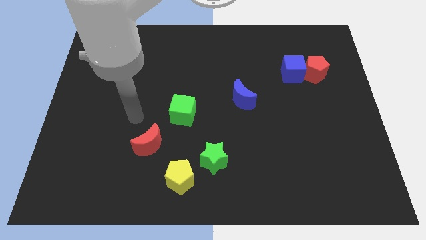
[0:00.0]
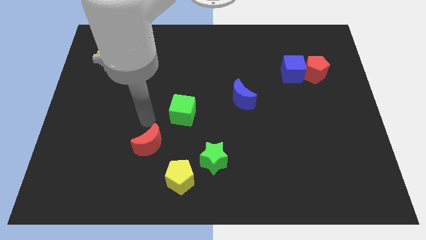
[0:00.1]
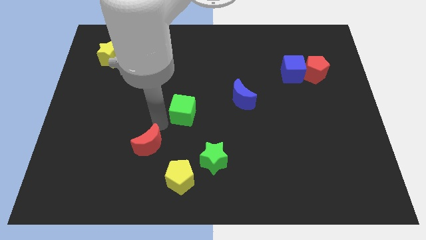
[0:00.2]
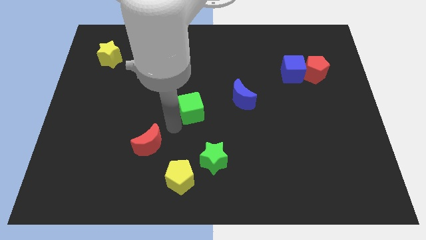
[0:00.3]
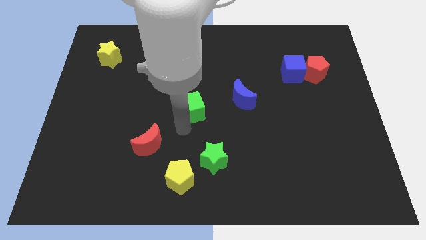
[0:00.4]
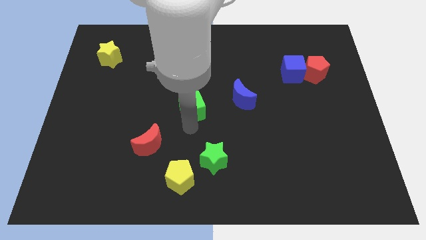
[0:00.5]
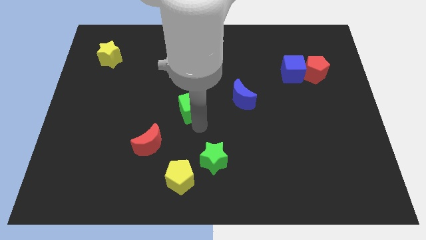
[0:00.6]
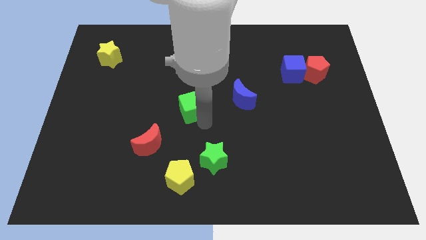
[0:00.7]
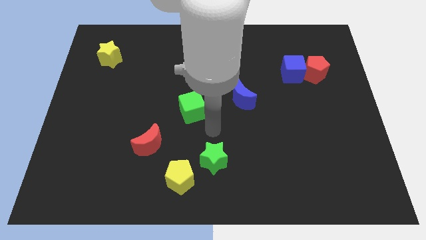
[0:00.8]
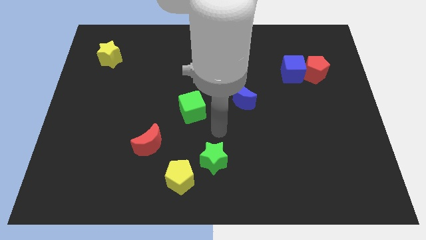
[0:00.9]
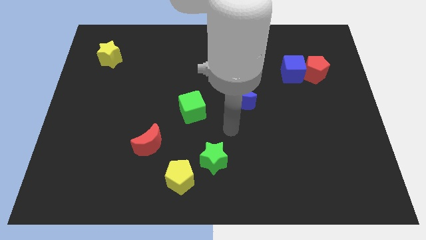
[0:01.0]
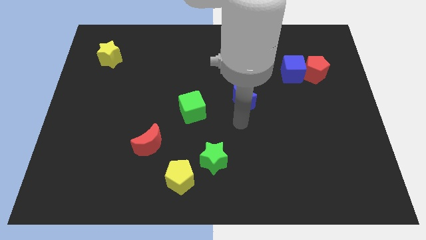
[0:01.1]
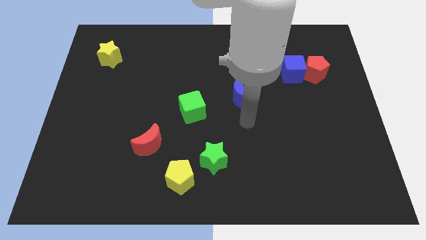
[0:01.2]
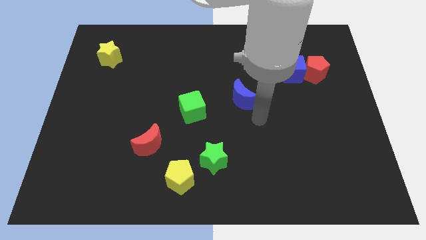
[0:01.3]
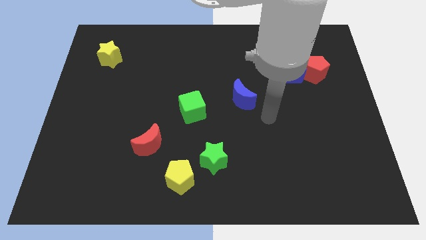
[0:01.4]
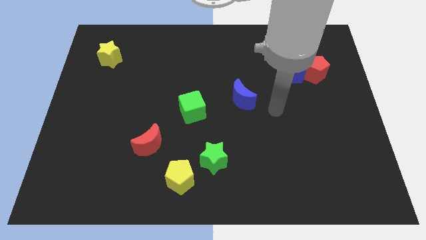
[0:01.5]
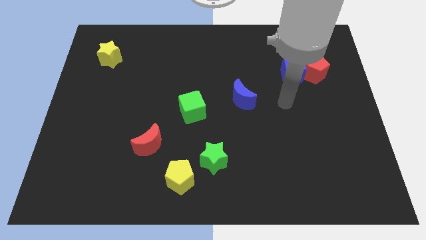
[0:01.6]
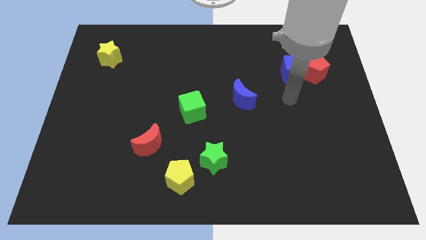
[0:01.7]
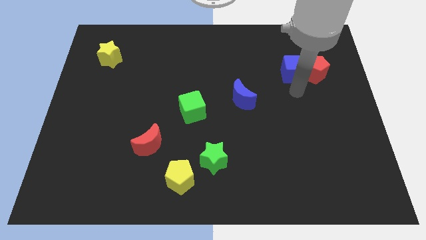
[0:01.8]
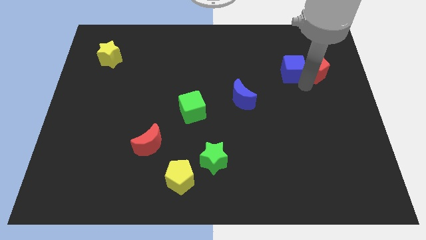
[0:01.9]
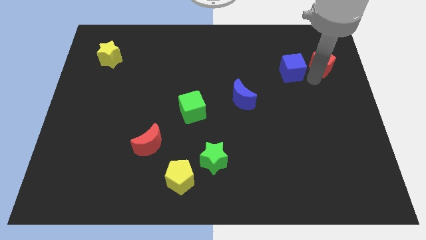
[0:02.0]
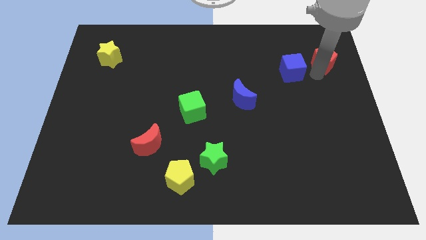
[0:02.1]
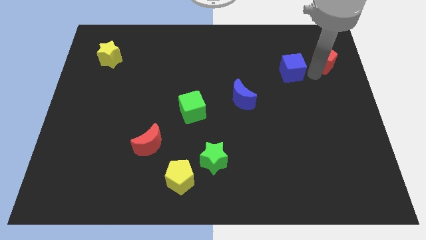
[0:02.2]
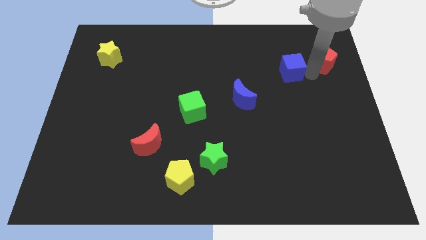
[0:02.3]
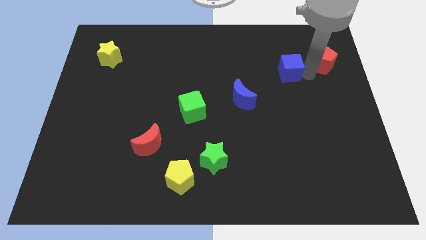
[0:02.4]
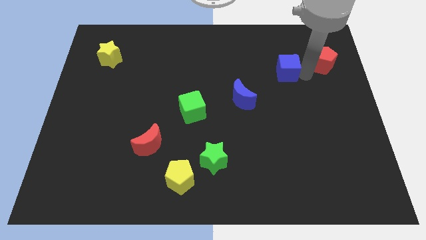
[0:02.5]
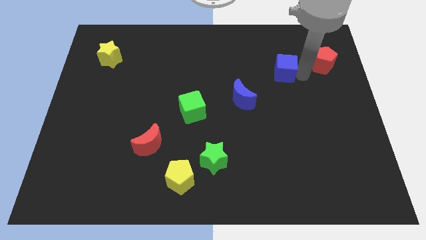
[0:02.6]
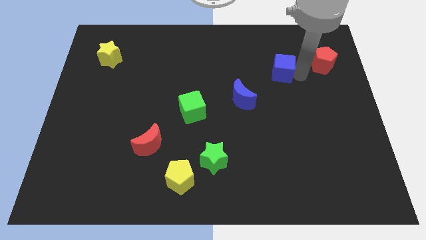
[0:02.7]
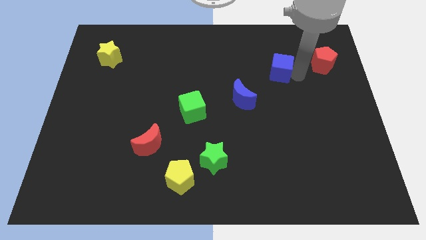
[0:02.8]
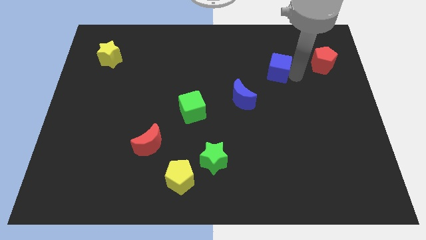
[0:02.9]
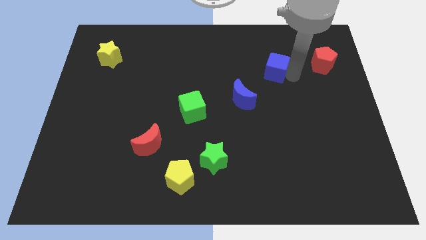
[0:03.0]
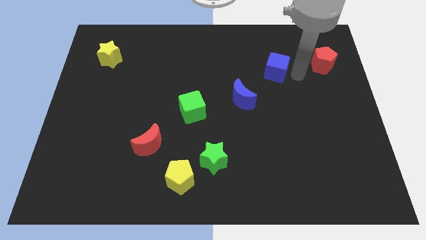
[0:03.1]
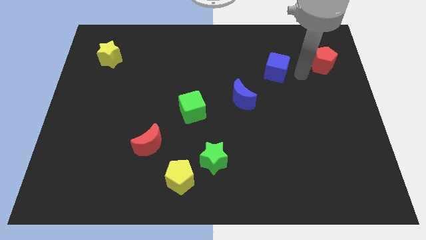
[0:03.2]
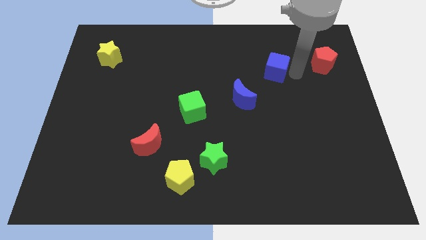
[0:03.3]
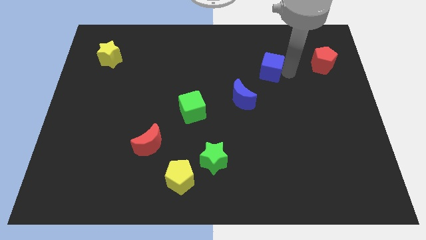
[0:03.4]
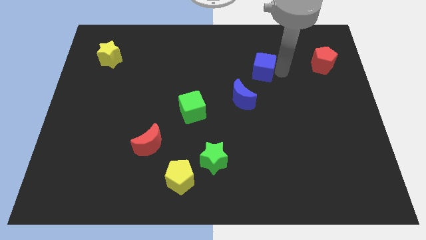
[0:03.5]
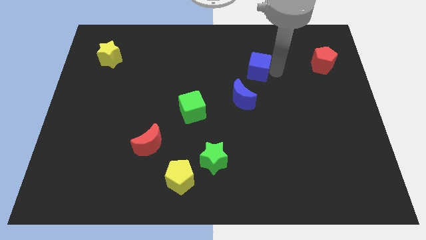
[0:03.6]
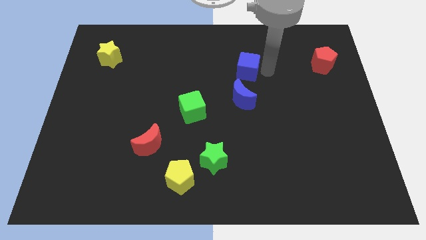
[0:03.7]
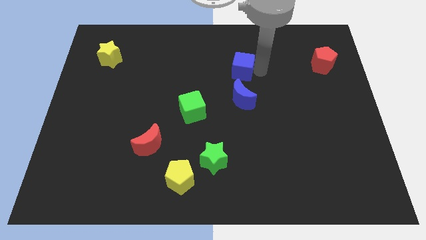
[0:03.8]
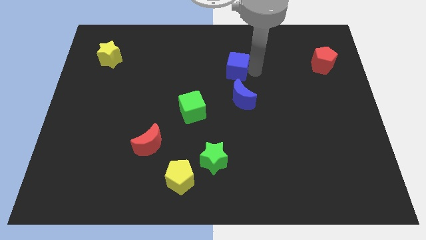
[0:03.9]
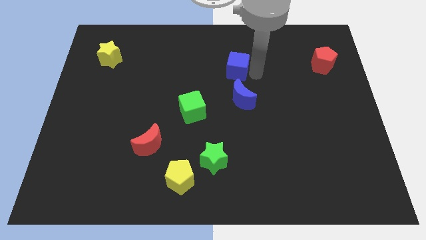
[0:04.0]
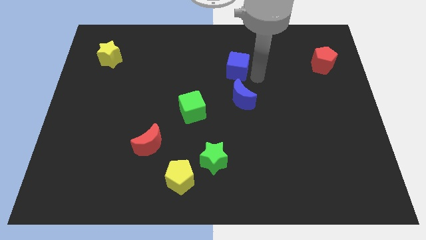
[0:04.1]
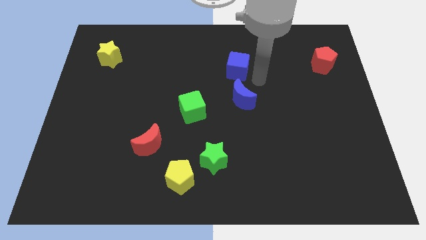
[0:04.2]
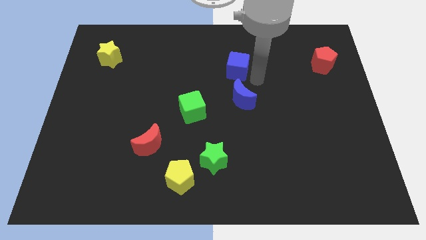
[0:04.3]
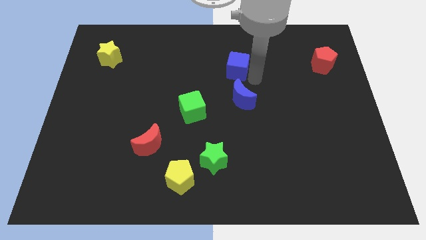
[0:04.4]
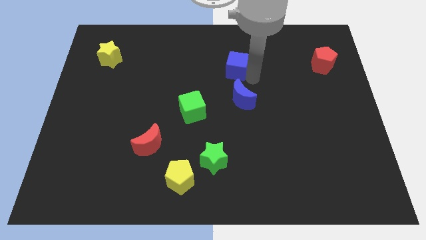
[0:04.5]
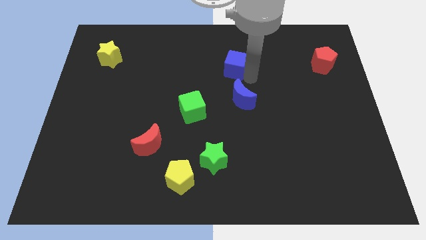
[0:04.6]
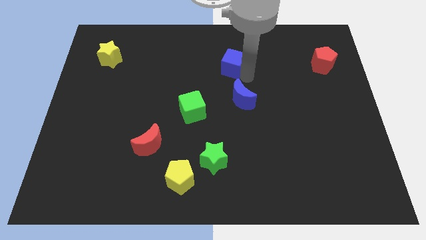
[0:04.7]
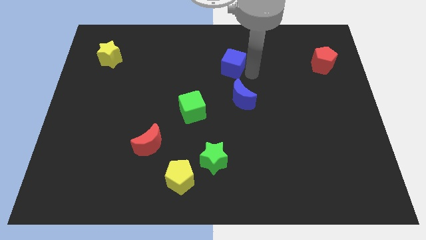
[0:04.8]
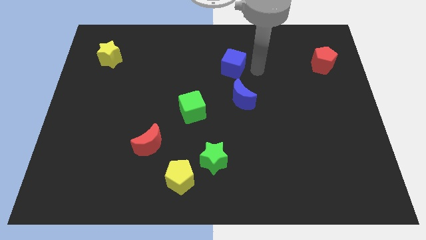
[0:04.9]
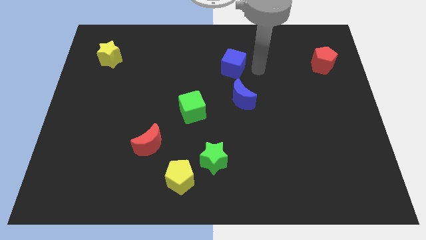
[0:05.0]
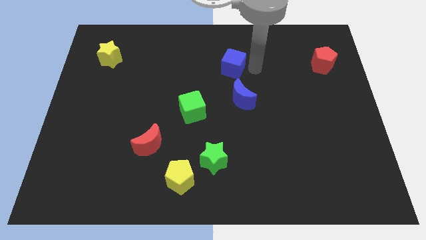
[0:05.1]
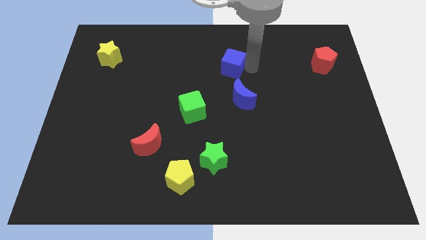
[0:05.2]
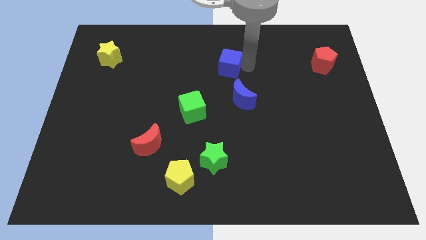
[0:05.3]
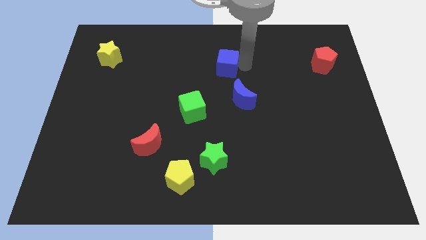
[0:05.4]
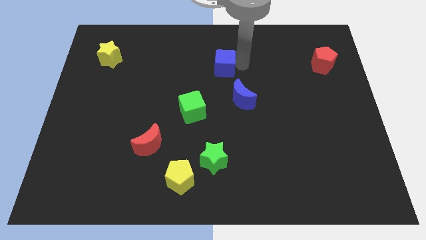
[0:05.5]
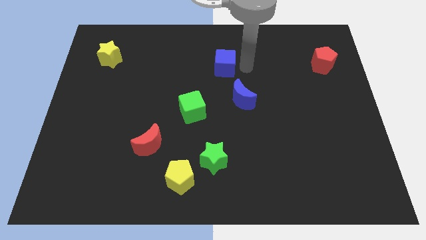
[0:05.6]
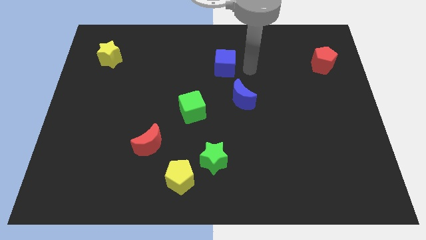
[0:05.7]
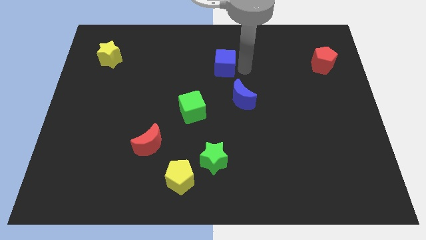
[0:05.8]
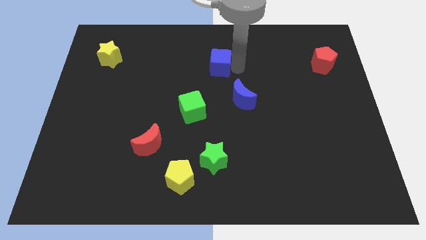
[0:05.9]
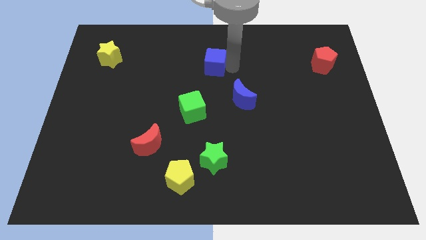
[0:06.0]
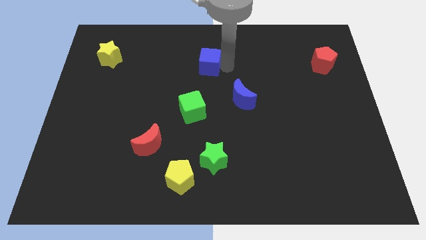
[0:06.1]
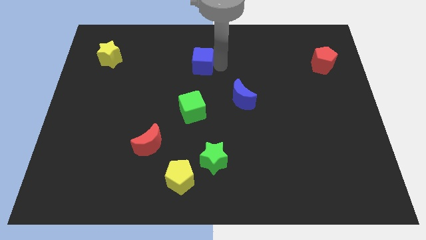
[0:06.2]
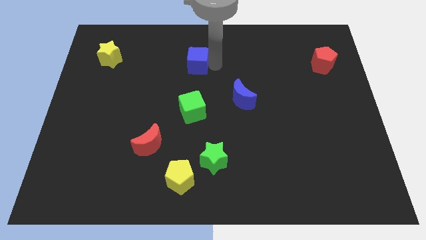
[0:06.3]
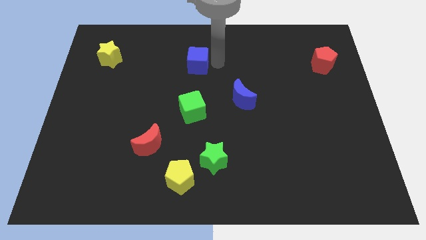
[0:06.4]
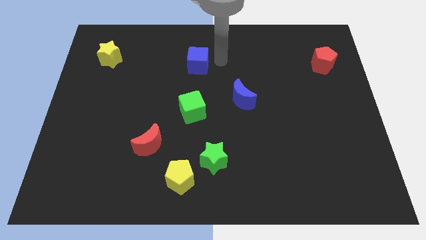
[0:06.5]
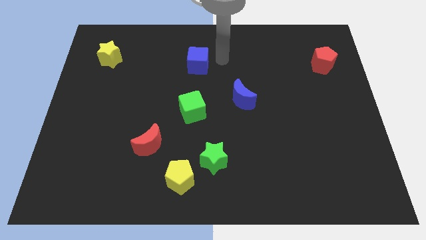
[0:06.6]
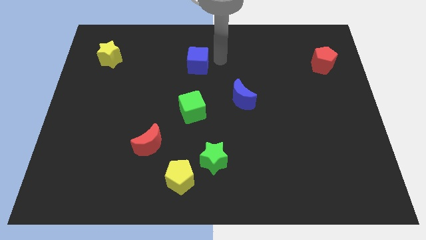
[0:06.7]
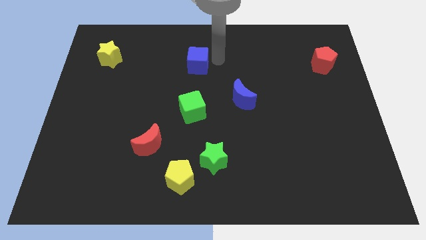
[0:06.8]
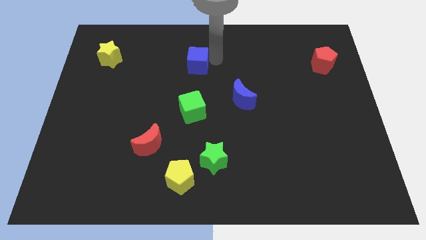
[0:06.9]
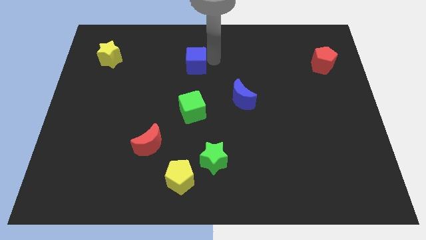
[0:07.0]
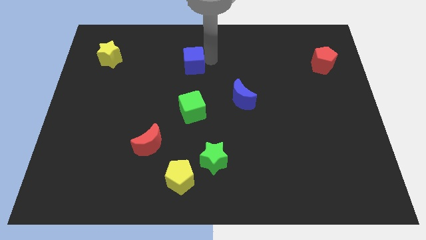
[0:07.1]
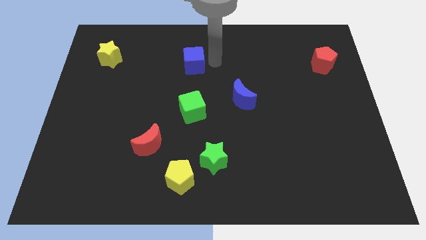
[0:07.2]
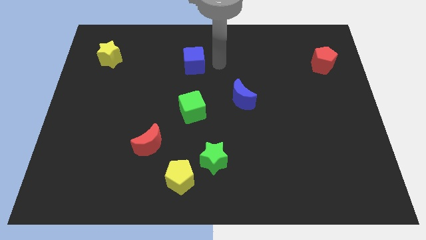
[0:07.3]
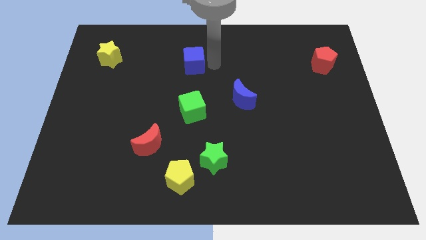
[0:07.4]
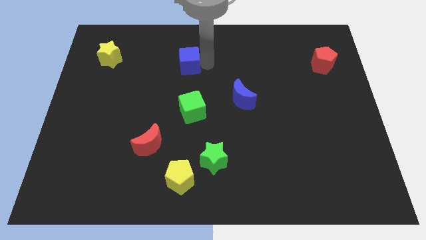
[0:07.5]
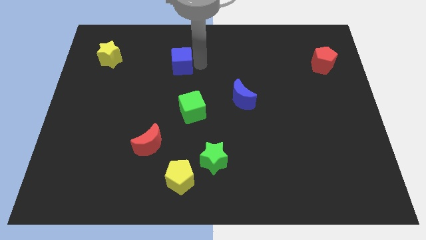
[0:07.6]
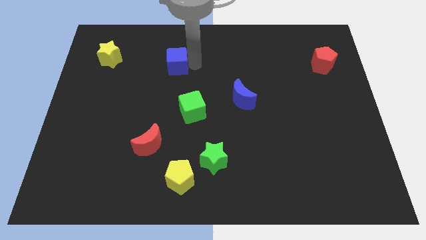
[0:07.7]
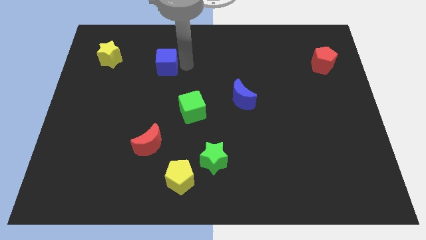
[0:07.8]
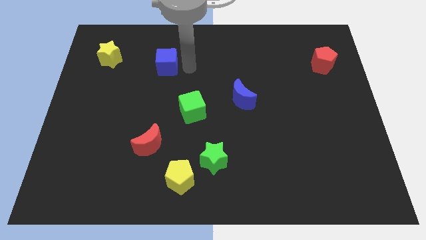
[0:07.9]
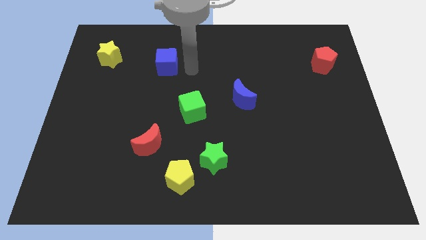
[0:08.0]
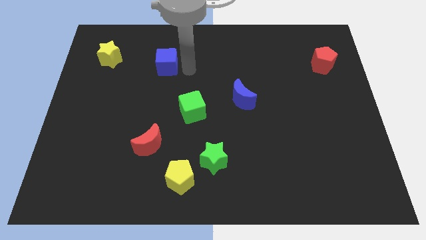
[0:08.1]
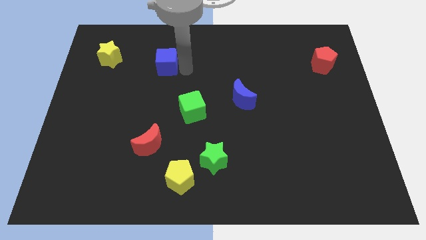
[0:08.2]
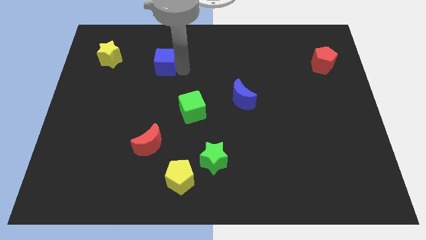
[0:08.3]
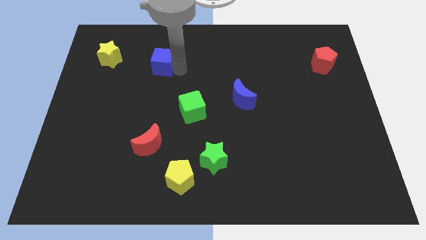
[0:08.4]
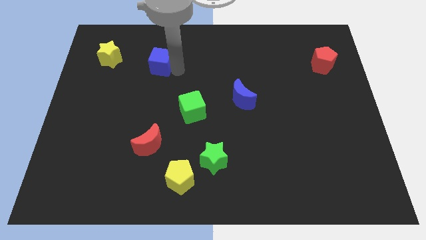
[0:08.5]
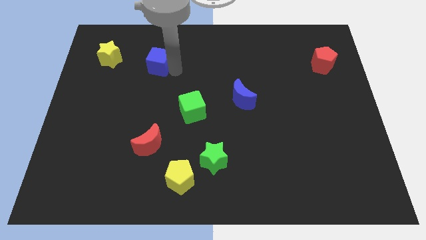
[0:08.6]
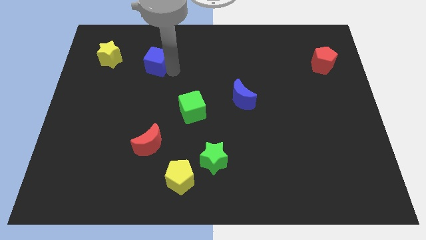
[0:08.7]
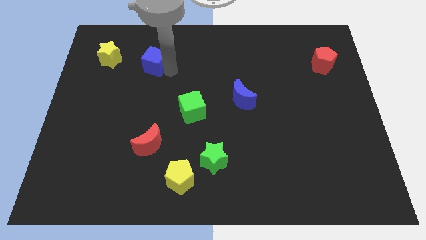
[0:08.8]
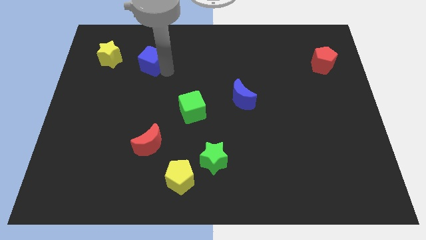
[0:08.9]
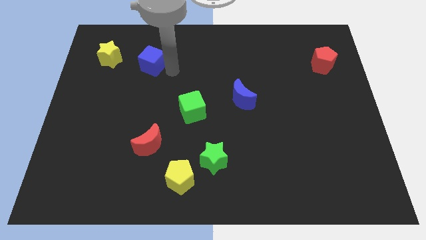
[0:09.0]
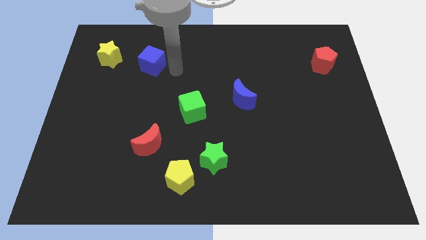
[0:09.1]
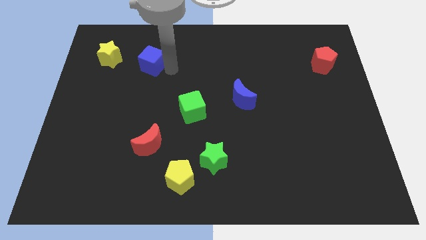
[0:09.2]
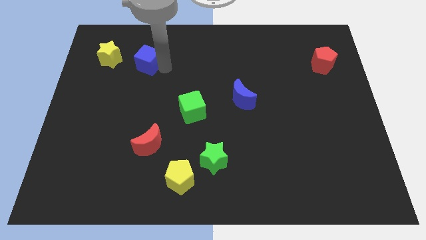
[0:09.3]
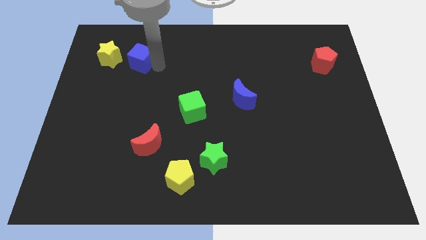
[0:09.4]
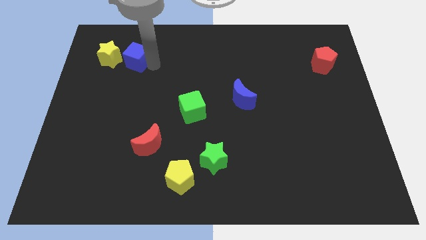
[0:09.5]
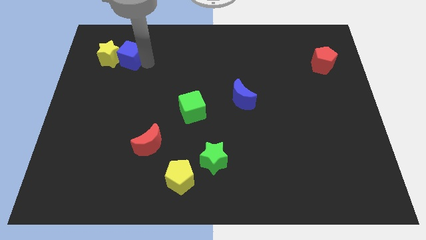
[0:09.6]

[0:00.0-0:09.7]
put the blue cube to the yellow star
